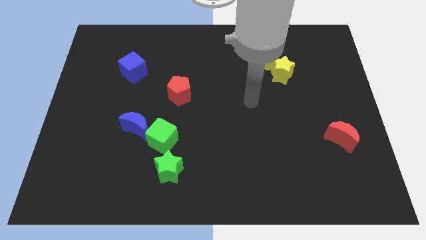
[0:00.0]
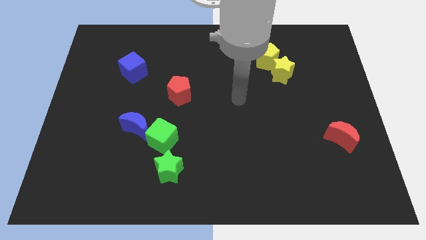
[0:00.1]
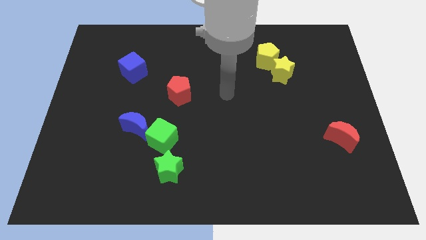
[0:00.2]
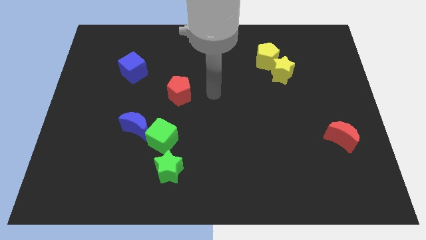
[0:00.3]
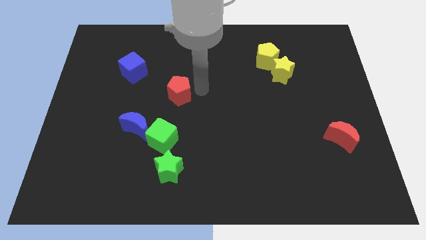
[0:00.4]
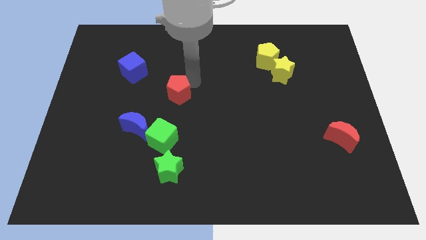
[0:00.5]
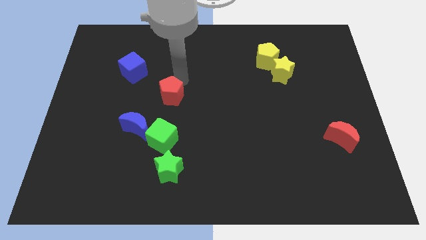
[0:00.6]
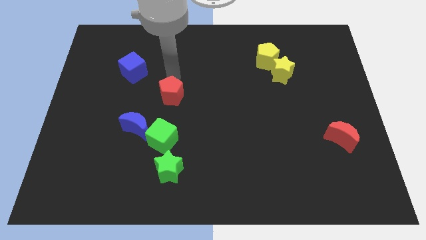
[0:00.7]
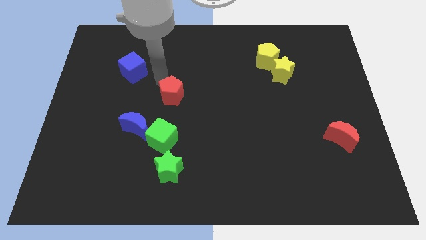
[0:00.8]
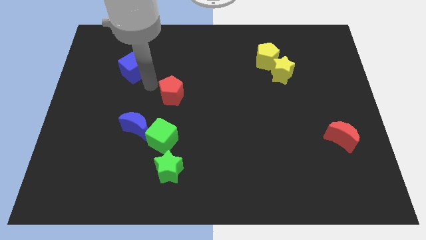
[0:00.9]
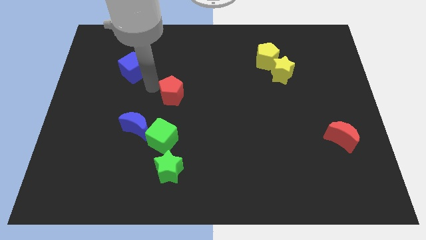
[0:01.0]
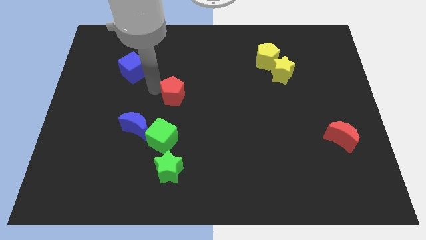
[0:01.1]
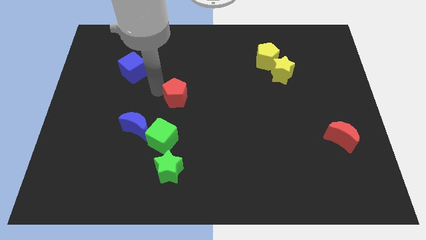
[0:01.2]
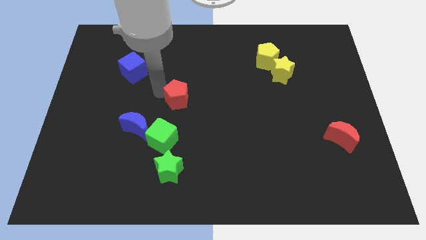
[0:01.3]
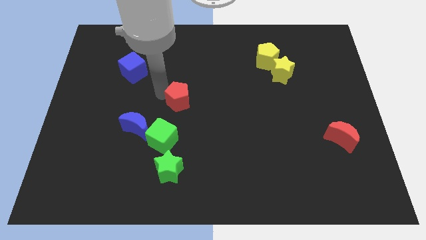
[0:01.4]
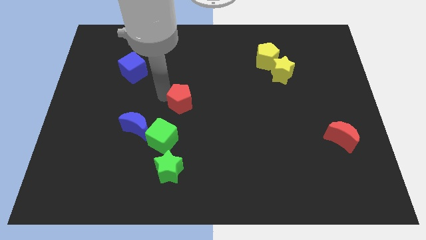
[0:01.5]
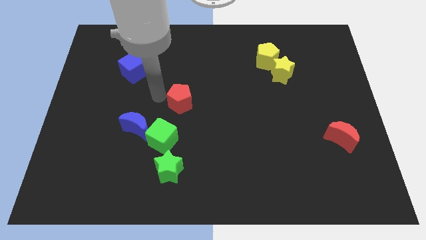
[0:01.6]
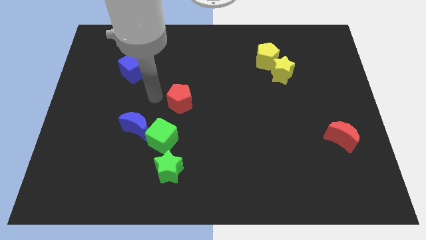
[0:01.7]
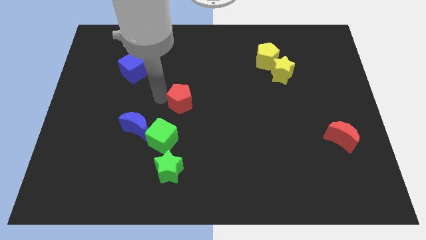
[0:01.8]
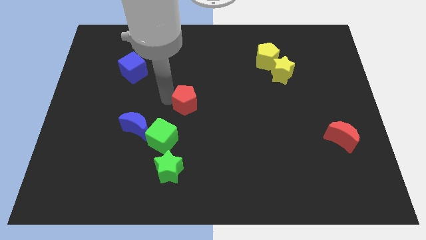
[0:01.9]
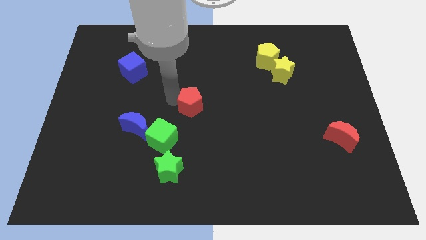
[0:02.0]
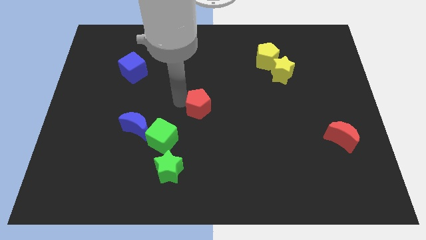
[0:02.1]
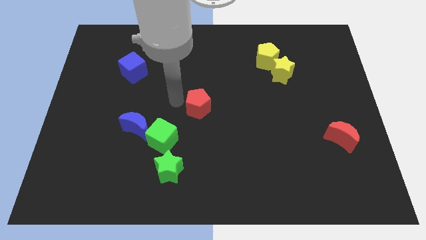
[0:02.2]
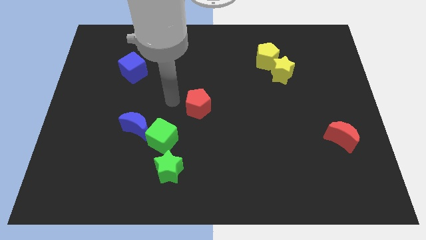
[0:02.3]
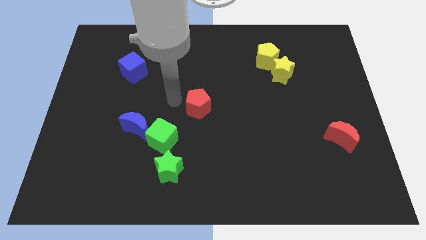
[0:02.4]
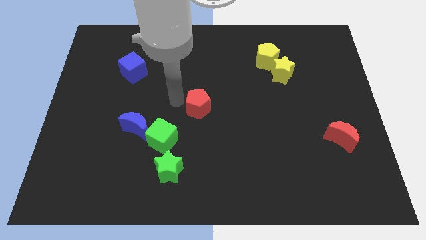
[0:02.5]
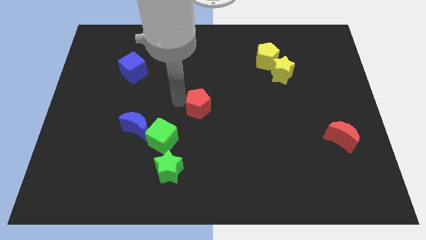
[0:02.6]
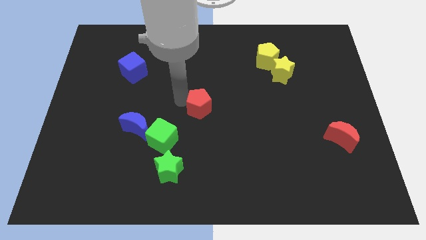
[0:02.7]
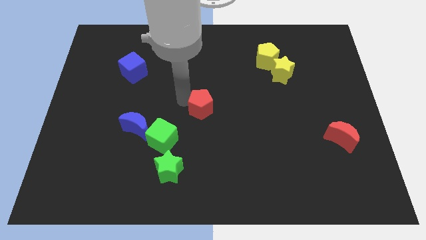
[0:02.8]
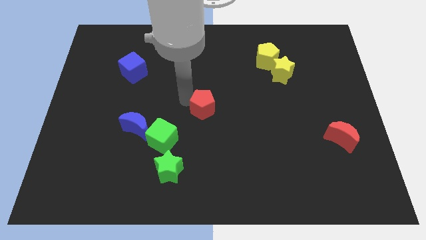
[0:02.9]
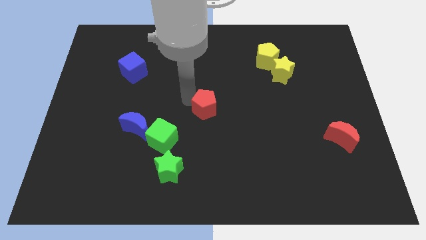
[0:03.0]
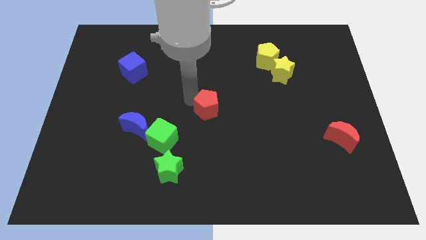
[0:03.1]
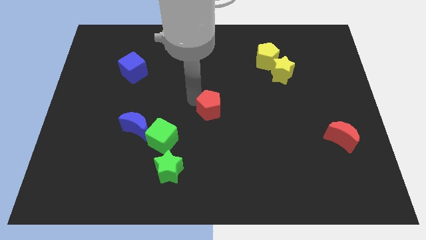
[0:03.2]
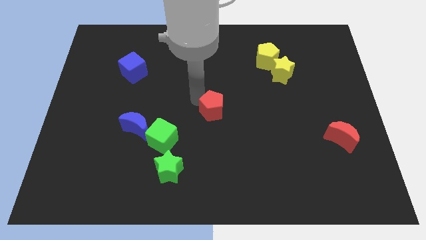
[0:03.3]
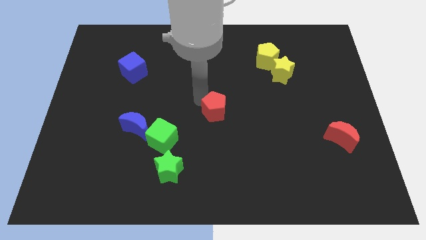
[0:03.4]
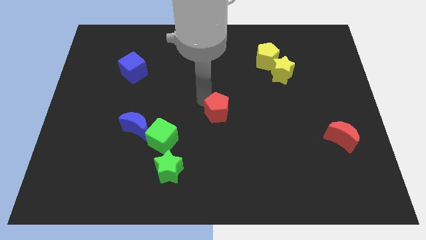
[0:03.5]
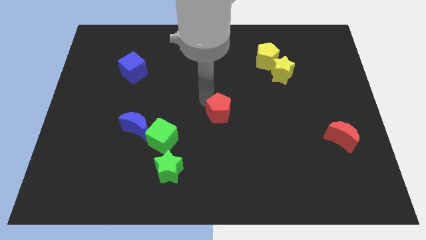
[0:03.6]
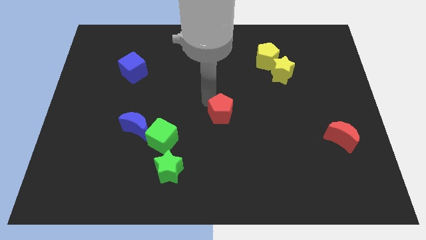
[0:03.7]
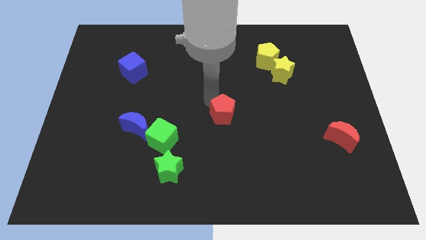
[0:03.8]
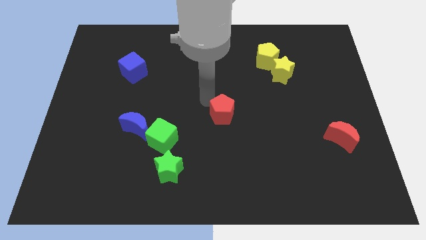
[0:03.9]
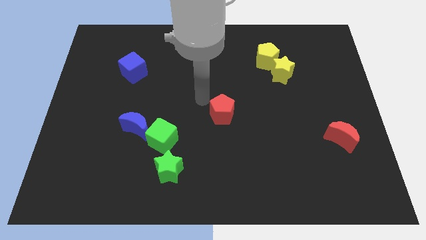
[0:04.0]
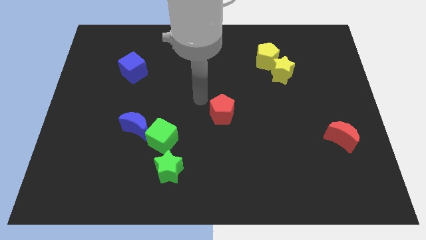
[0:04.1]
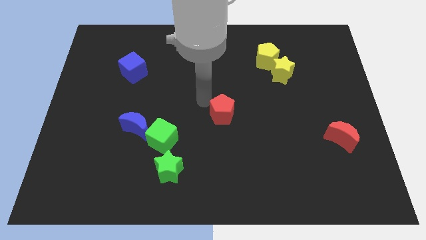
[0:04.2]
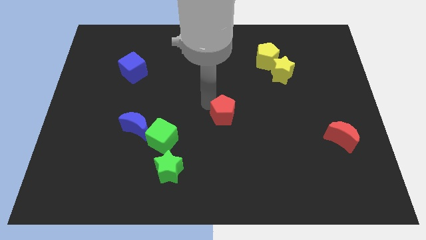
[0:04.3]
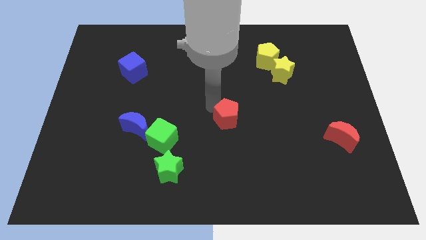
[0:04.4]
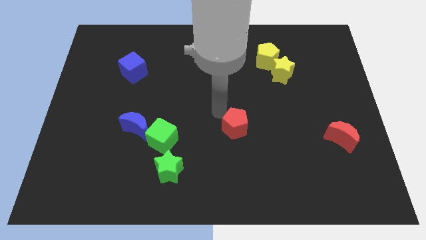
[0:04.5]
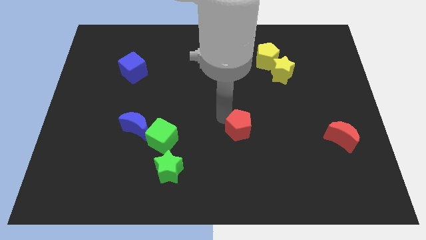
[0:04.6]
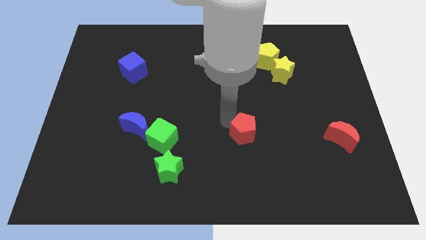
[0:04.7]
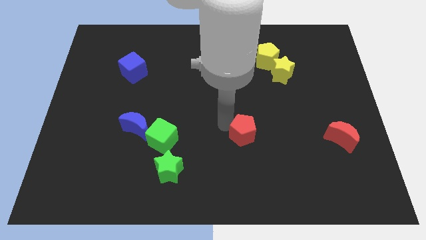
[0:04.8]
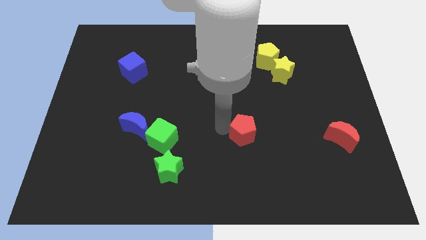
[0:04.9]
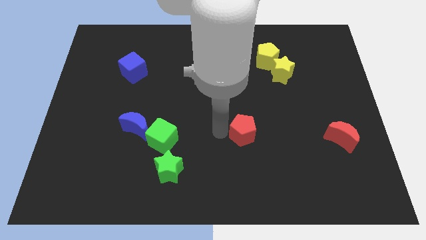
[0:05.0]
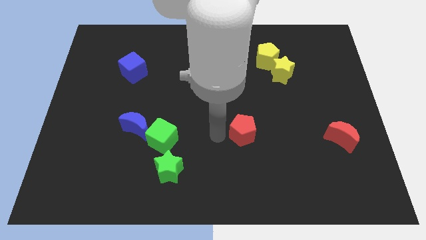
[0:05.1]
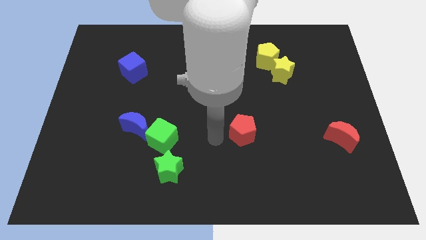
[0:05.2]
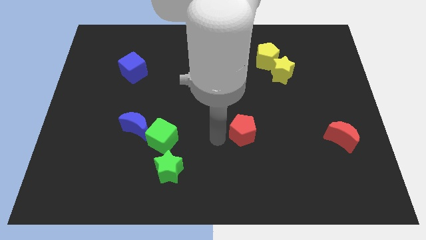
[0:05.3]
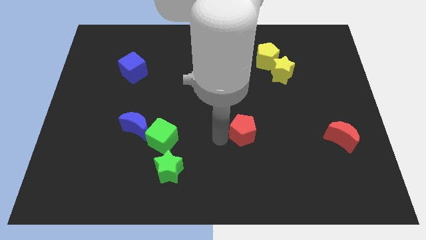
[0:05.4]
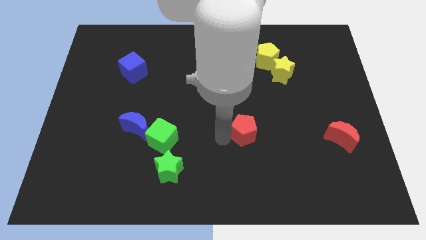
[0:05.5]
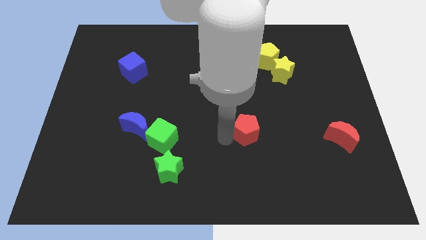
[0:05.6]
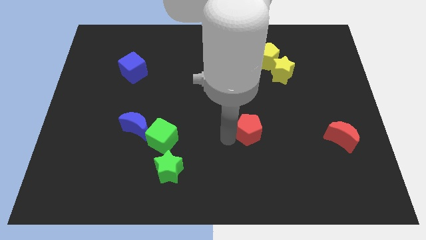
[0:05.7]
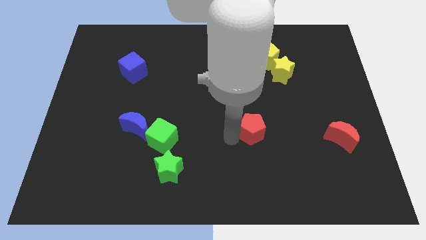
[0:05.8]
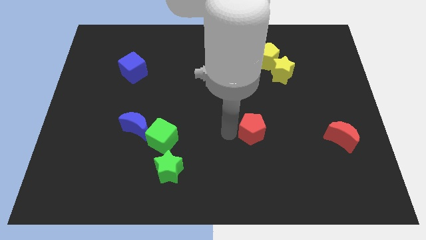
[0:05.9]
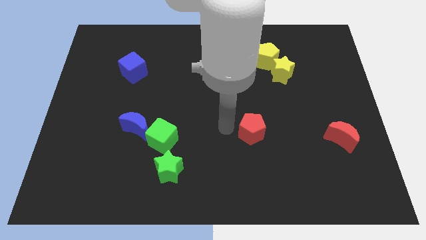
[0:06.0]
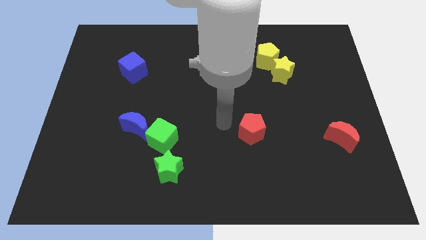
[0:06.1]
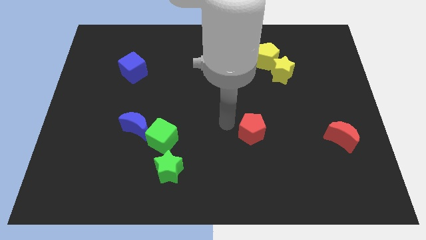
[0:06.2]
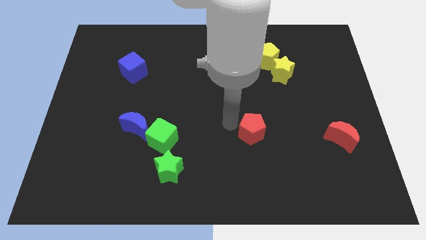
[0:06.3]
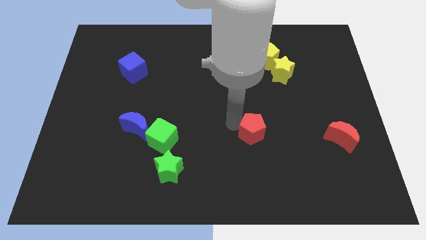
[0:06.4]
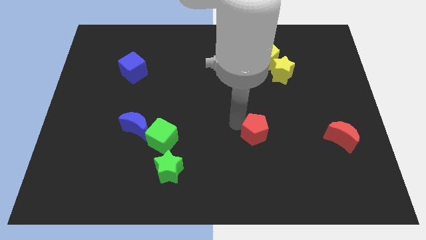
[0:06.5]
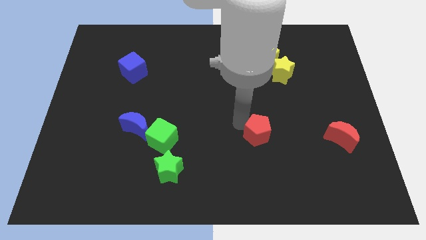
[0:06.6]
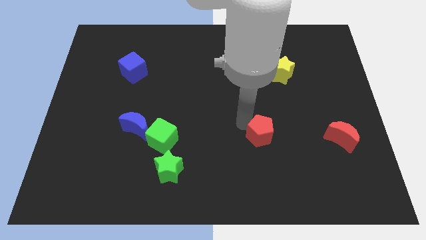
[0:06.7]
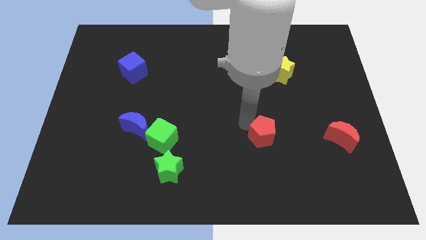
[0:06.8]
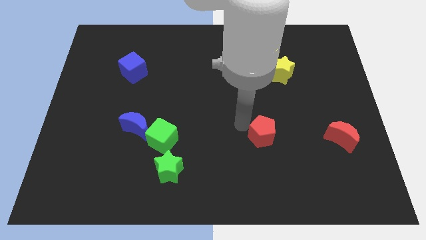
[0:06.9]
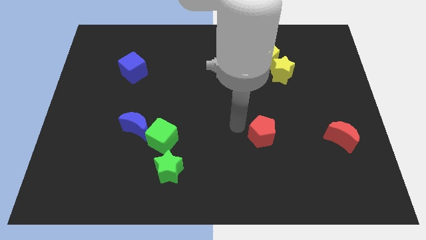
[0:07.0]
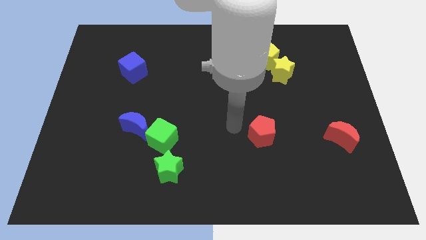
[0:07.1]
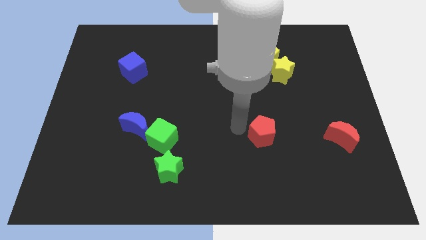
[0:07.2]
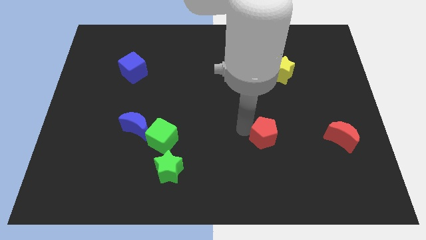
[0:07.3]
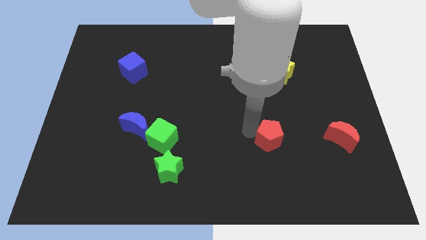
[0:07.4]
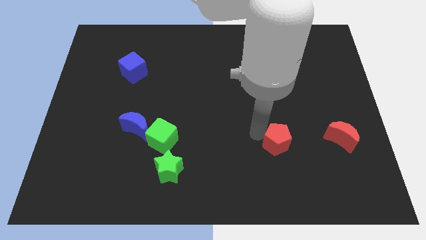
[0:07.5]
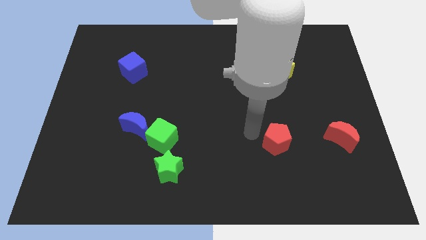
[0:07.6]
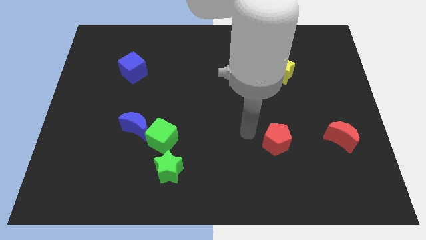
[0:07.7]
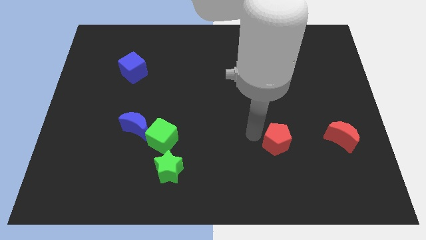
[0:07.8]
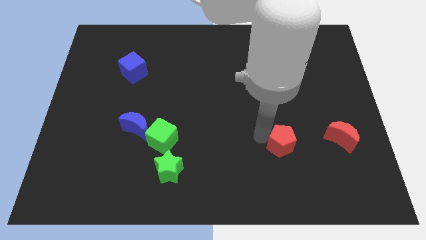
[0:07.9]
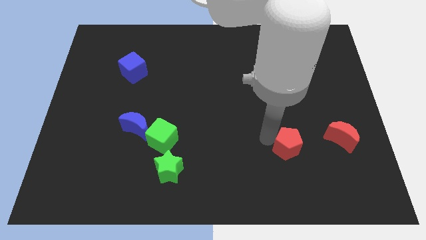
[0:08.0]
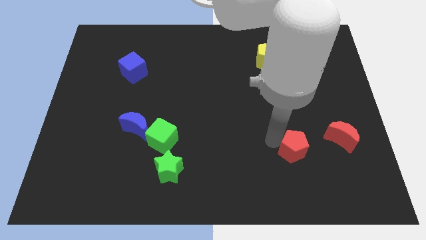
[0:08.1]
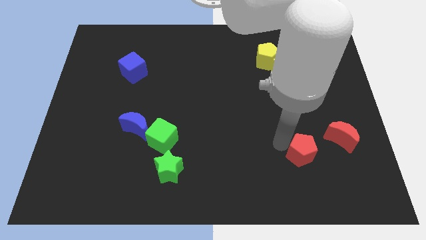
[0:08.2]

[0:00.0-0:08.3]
move the red pentagon to the bottom left of the red moon
